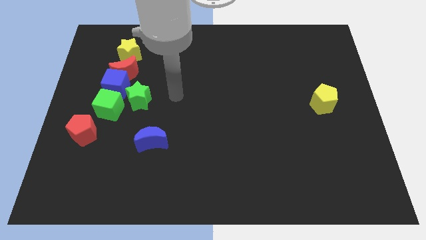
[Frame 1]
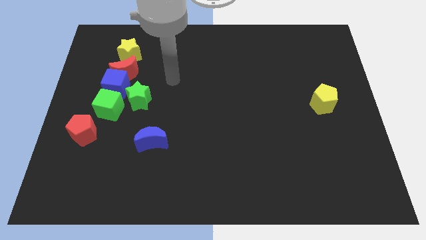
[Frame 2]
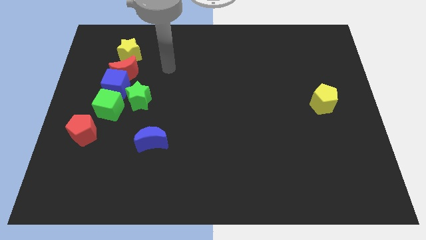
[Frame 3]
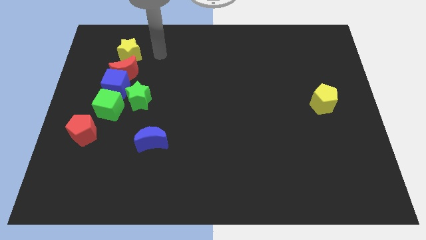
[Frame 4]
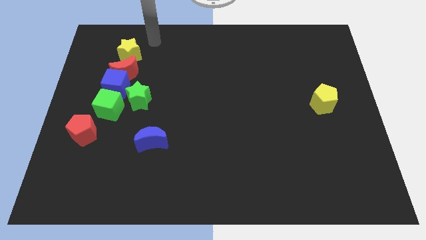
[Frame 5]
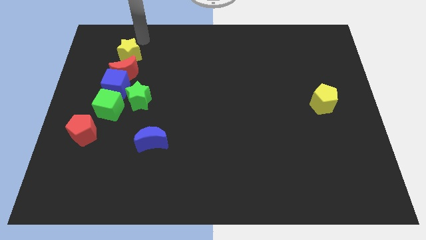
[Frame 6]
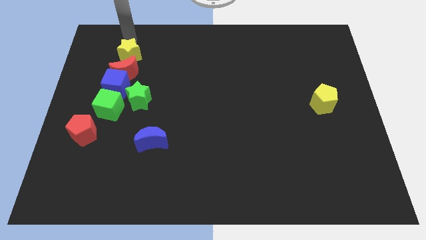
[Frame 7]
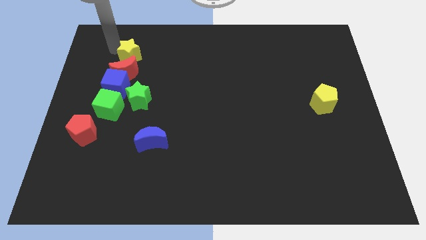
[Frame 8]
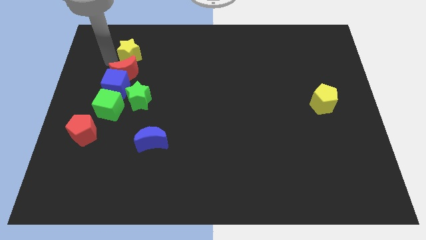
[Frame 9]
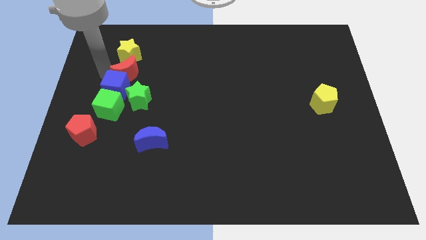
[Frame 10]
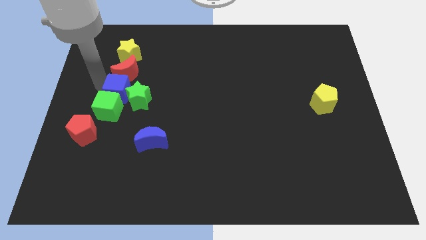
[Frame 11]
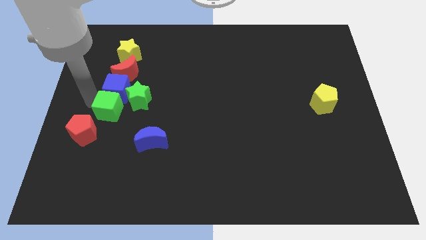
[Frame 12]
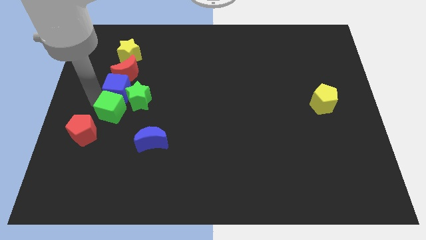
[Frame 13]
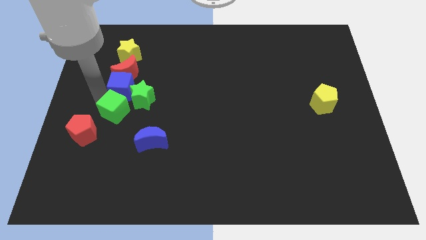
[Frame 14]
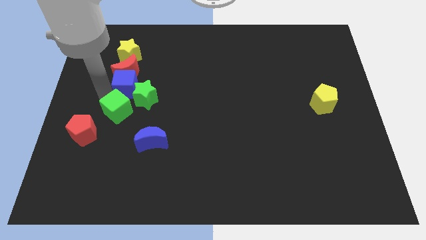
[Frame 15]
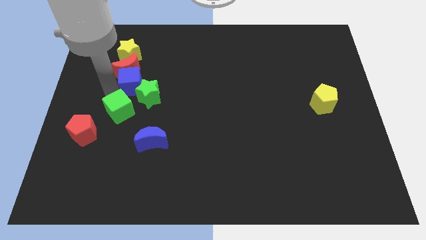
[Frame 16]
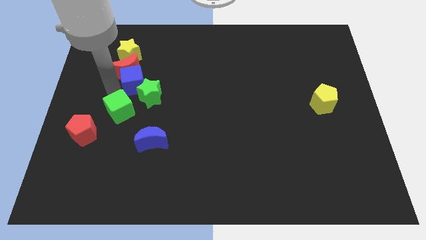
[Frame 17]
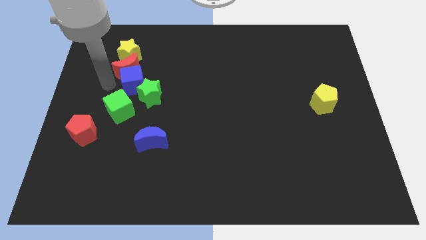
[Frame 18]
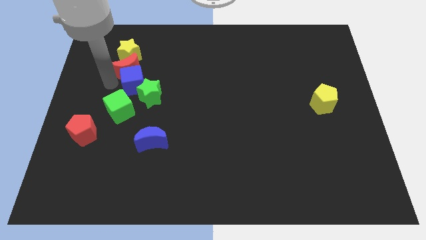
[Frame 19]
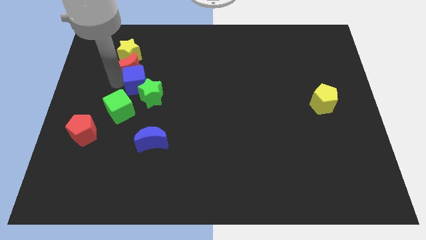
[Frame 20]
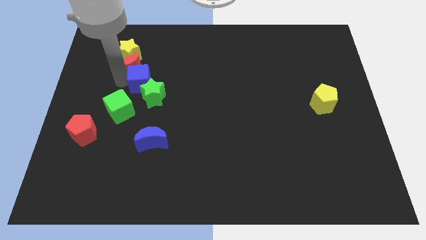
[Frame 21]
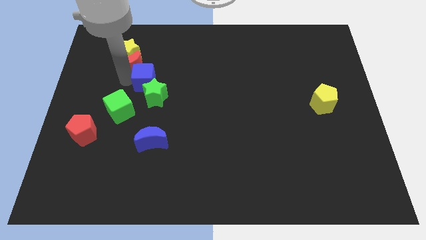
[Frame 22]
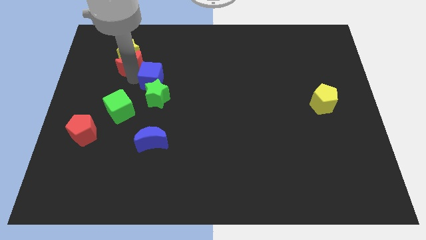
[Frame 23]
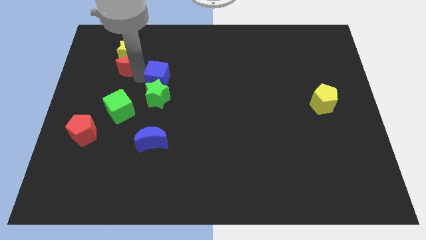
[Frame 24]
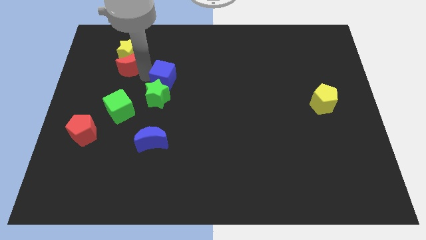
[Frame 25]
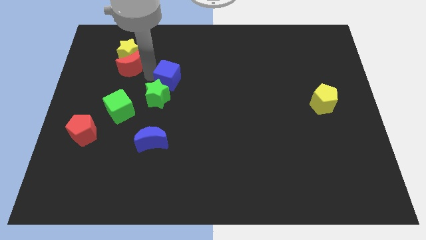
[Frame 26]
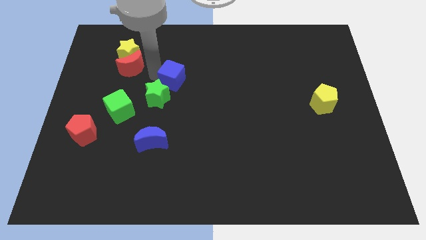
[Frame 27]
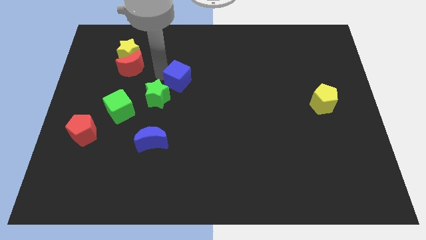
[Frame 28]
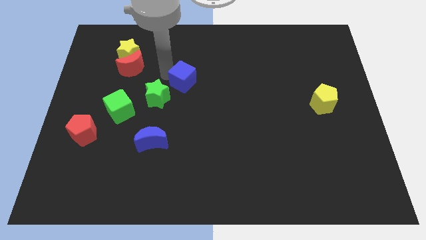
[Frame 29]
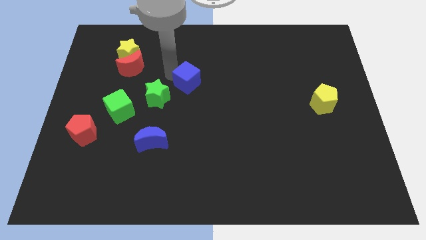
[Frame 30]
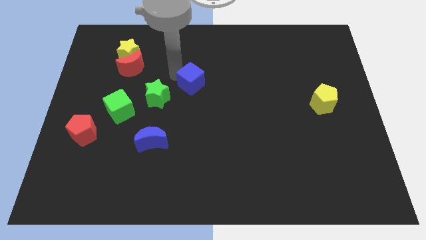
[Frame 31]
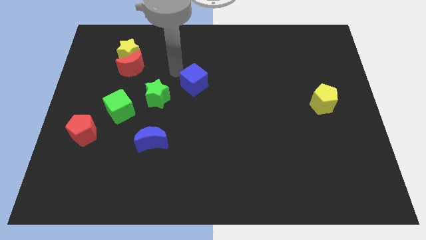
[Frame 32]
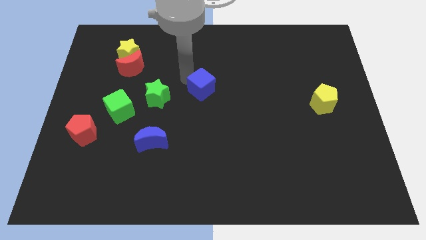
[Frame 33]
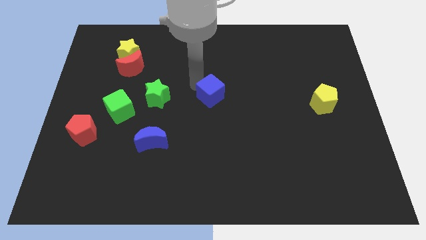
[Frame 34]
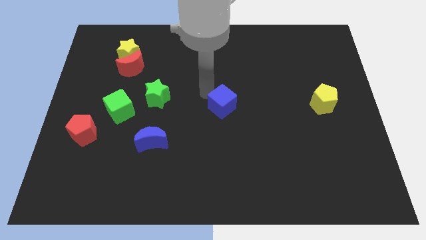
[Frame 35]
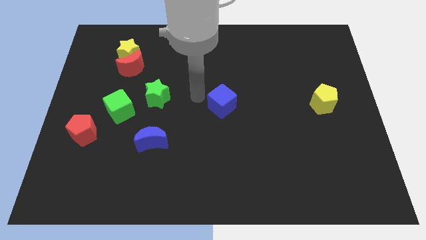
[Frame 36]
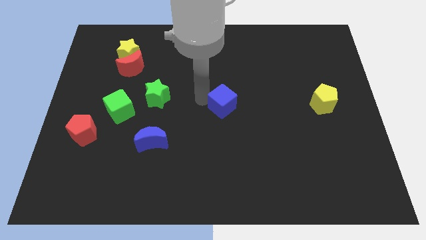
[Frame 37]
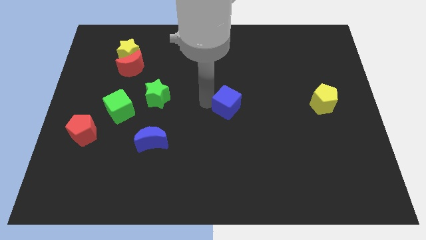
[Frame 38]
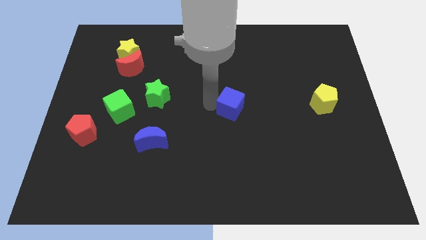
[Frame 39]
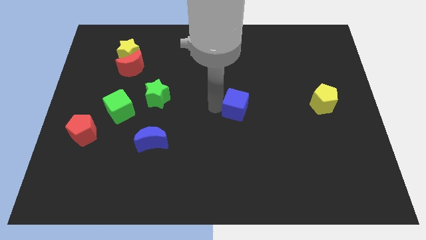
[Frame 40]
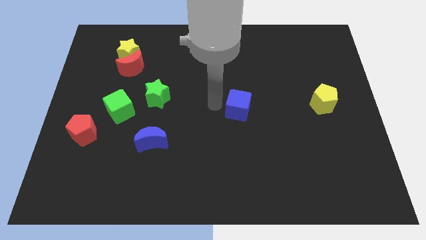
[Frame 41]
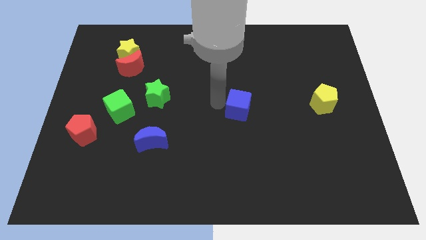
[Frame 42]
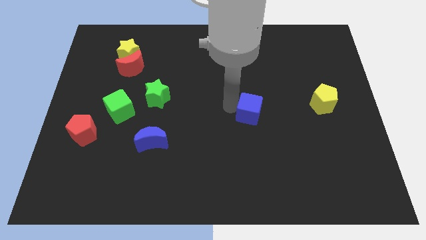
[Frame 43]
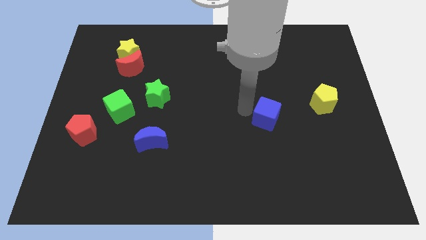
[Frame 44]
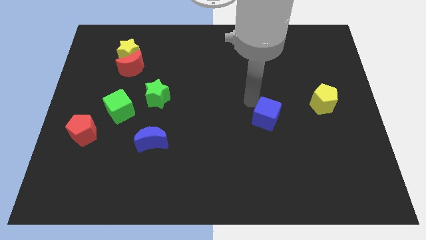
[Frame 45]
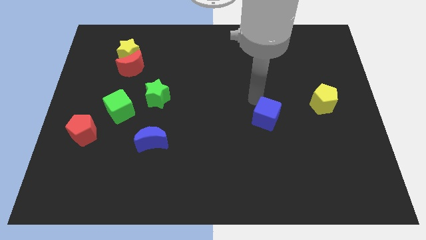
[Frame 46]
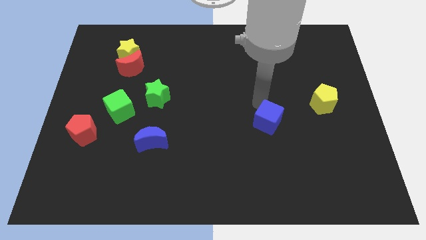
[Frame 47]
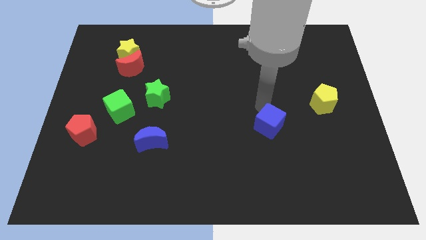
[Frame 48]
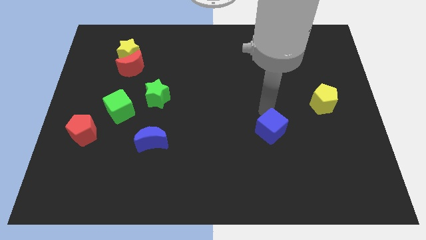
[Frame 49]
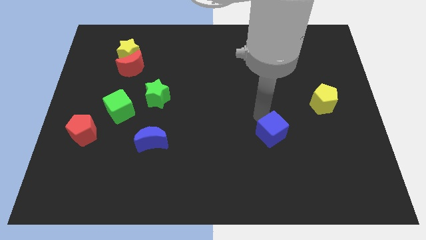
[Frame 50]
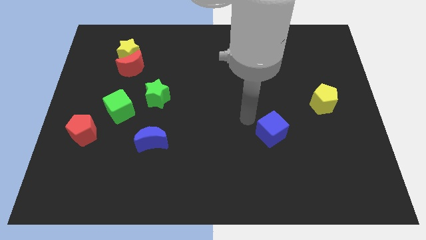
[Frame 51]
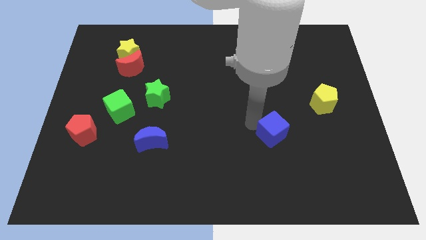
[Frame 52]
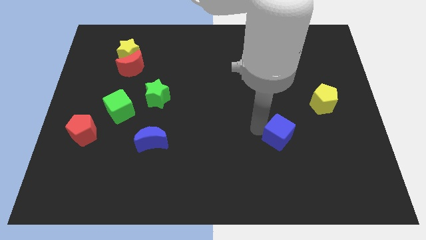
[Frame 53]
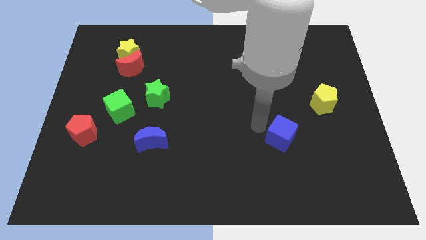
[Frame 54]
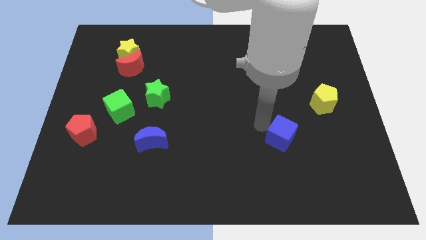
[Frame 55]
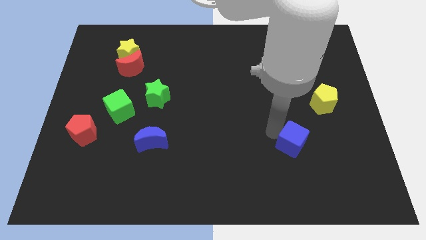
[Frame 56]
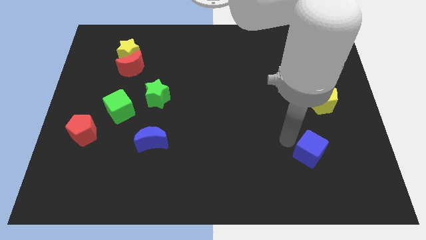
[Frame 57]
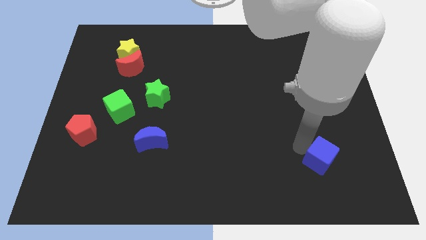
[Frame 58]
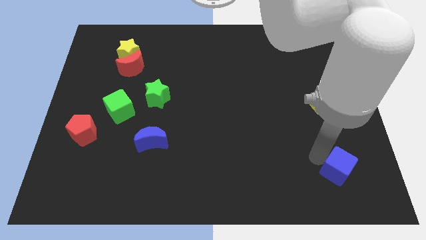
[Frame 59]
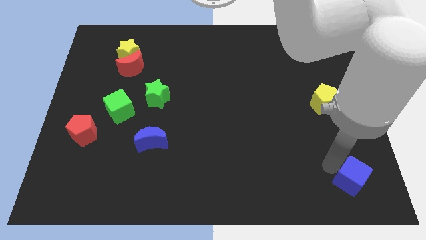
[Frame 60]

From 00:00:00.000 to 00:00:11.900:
slide the blue cube to the bottom right
